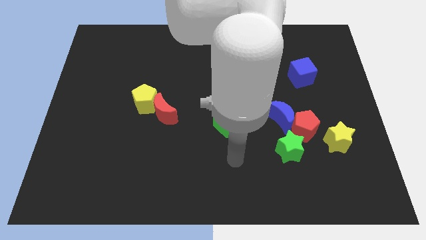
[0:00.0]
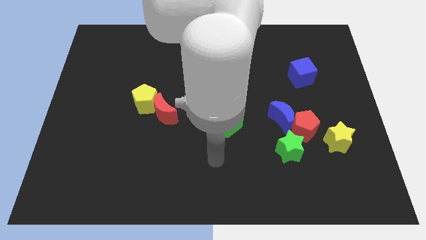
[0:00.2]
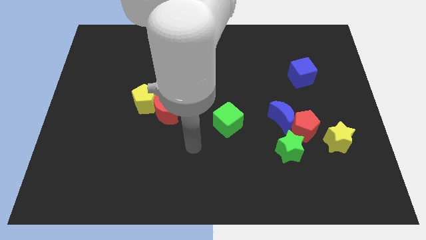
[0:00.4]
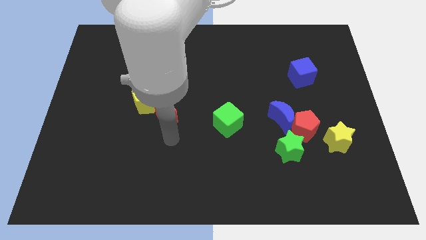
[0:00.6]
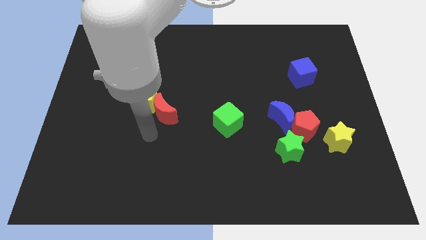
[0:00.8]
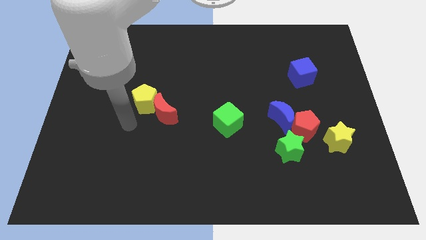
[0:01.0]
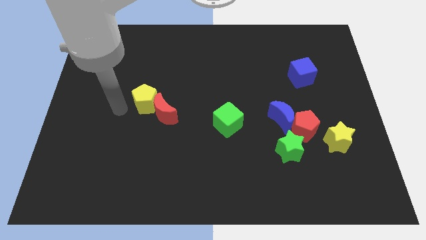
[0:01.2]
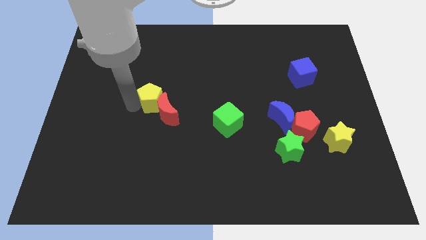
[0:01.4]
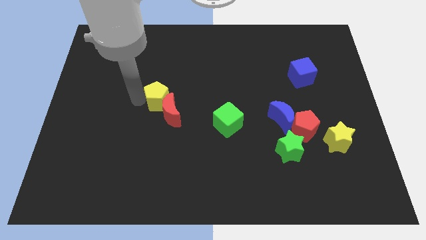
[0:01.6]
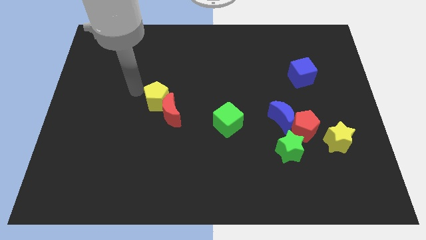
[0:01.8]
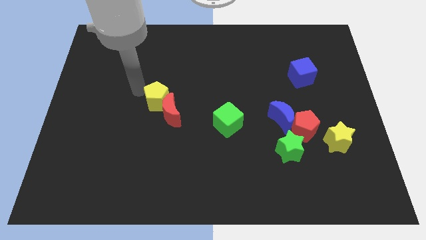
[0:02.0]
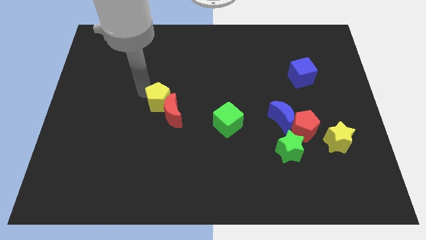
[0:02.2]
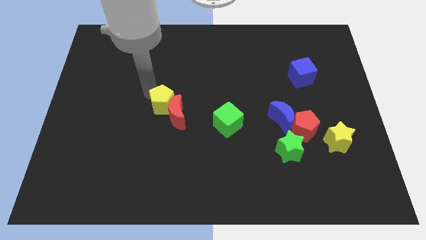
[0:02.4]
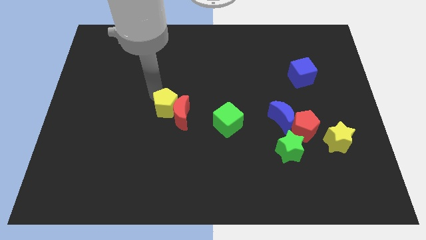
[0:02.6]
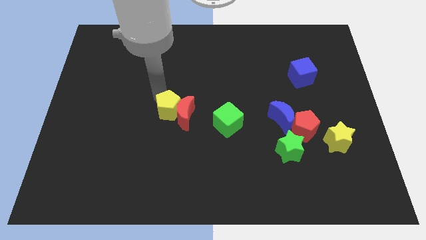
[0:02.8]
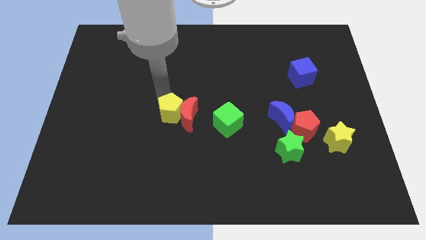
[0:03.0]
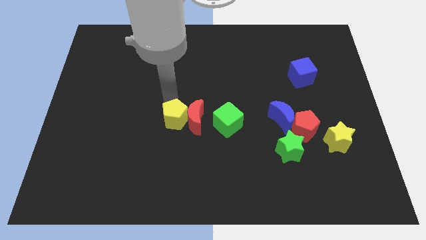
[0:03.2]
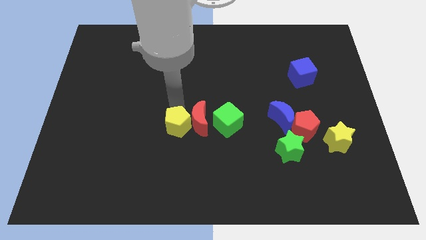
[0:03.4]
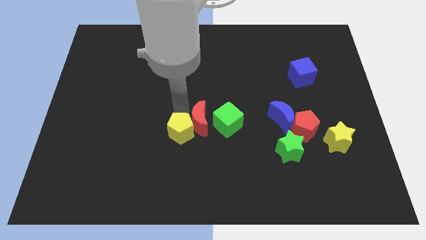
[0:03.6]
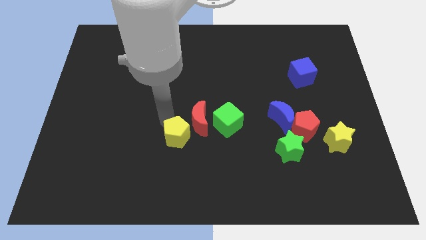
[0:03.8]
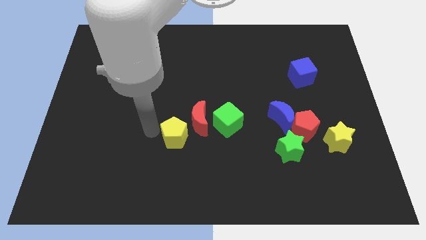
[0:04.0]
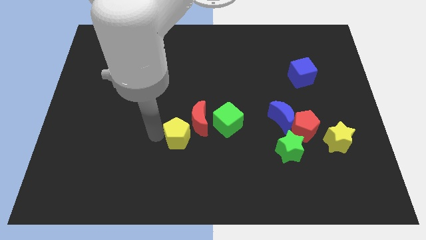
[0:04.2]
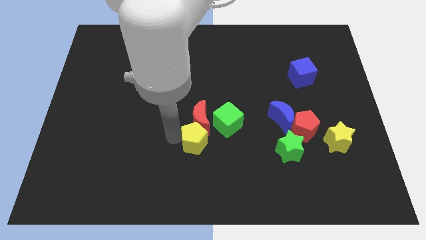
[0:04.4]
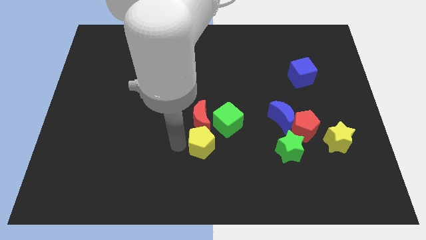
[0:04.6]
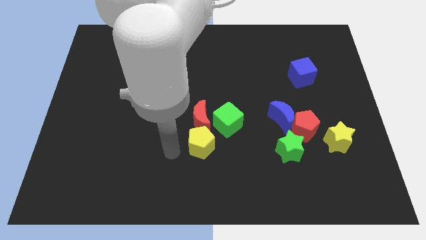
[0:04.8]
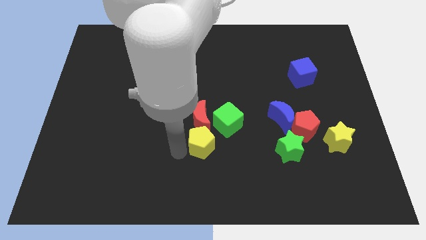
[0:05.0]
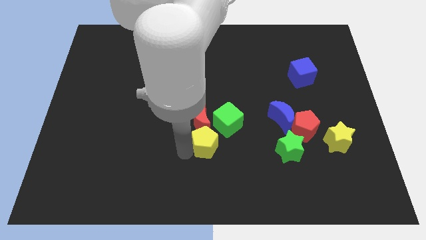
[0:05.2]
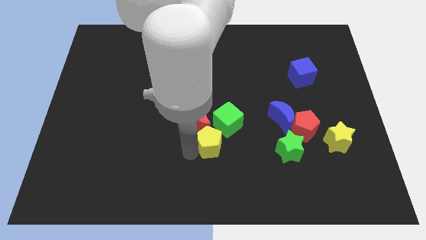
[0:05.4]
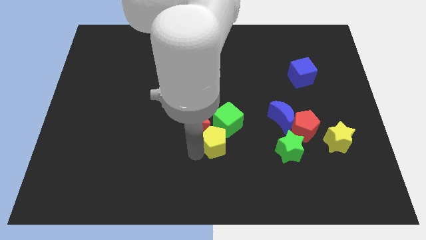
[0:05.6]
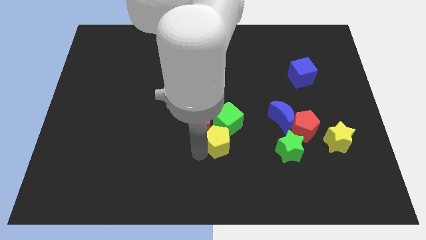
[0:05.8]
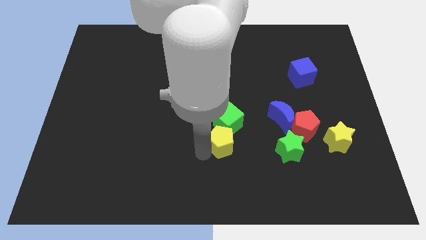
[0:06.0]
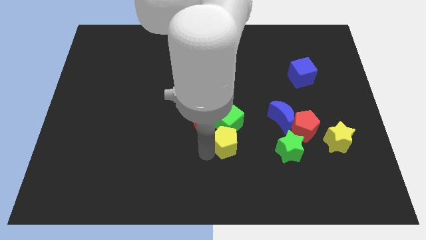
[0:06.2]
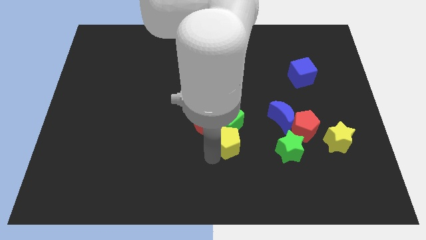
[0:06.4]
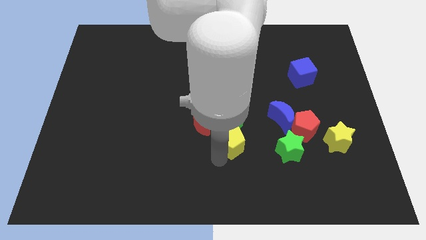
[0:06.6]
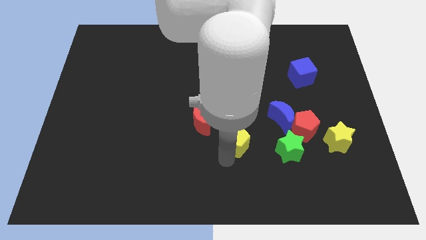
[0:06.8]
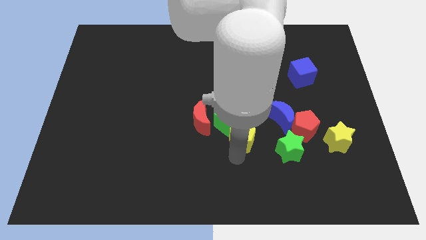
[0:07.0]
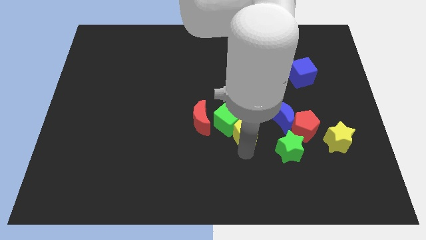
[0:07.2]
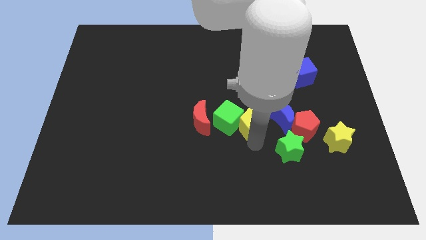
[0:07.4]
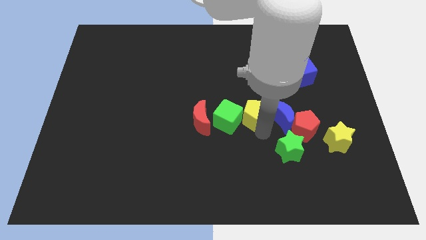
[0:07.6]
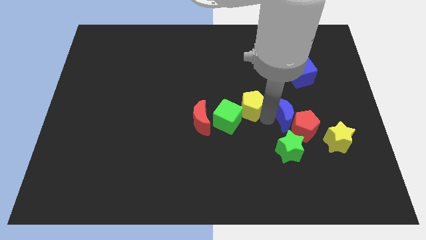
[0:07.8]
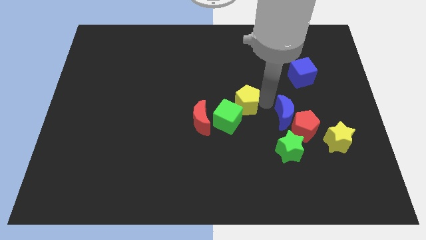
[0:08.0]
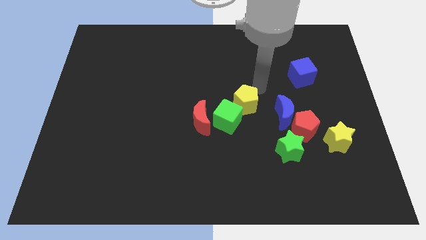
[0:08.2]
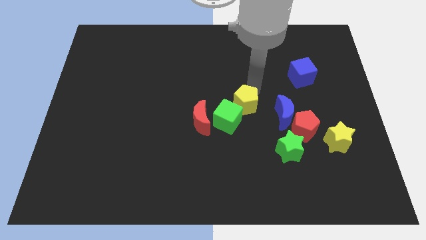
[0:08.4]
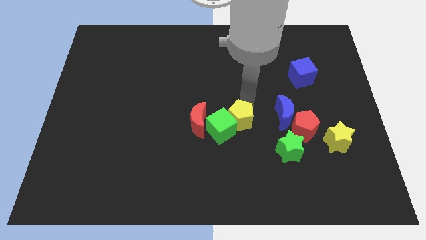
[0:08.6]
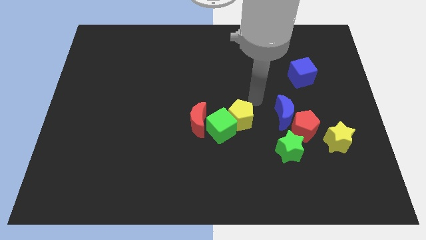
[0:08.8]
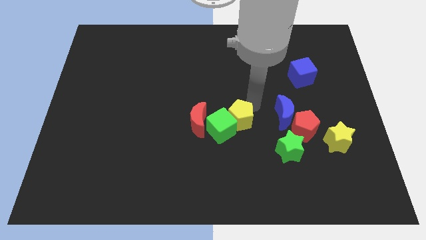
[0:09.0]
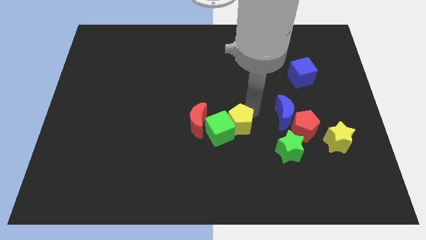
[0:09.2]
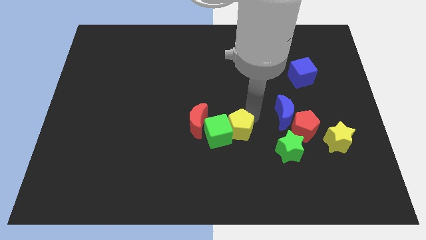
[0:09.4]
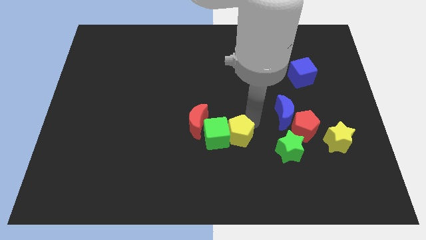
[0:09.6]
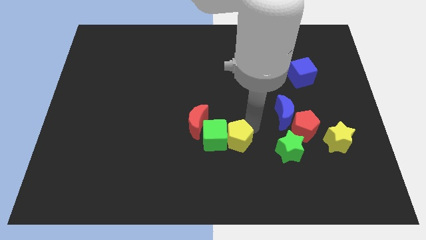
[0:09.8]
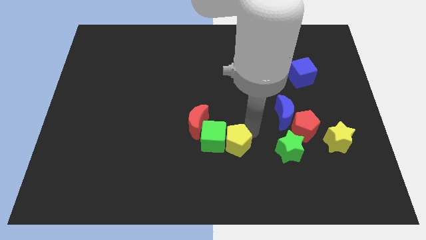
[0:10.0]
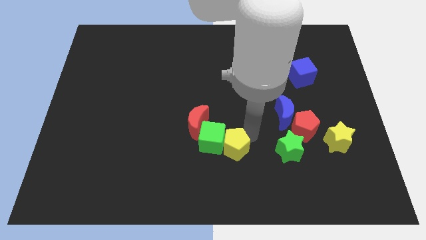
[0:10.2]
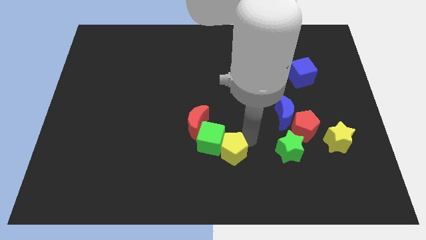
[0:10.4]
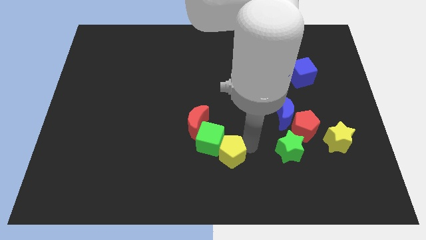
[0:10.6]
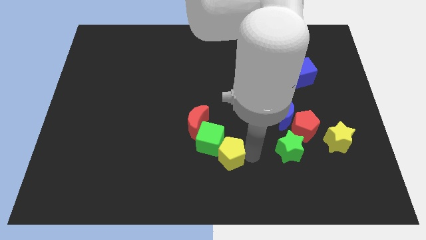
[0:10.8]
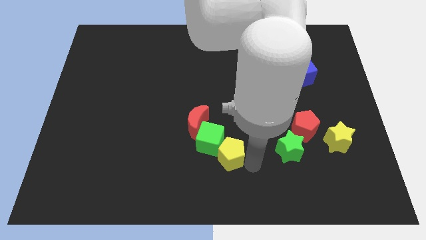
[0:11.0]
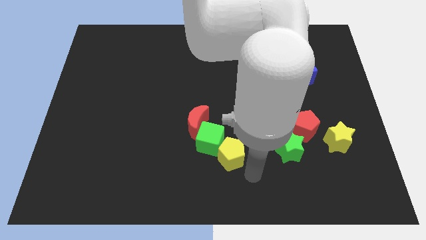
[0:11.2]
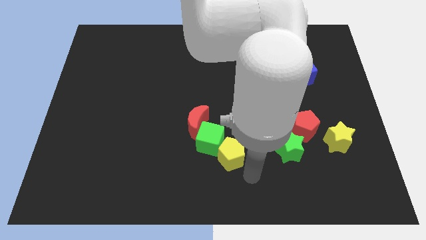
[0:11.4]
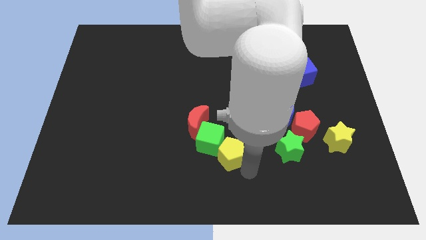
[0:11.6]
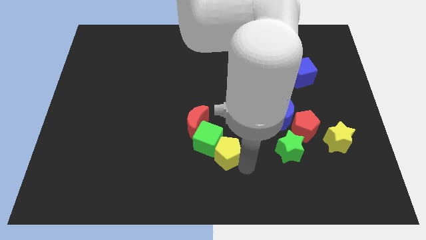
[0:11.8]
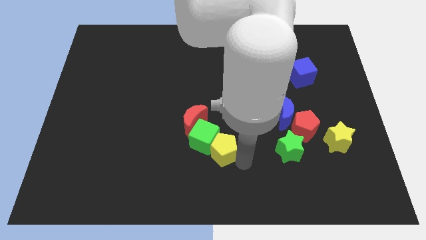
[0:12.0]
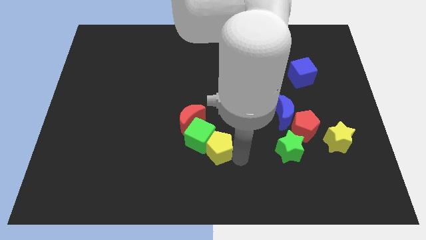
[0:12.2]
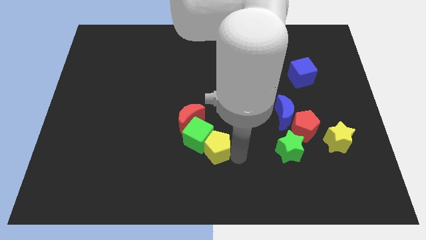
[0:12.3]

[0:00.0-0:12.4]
push the yellow pentagon to the bottom right of the red moon

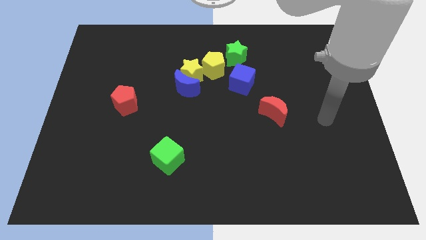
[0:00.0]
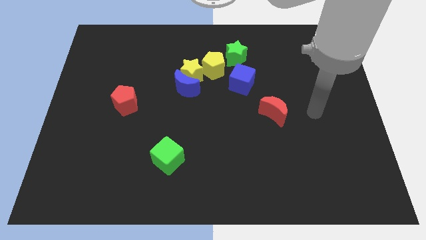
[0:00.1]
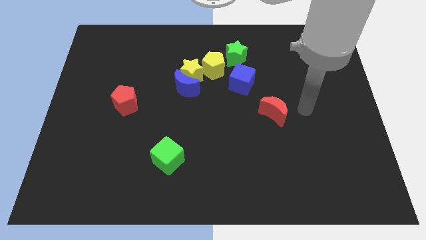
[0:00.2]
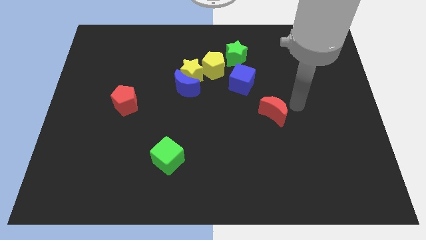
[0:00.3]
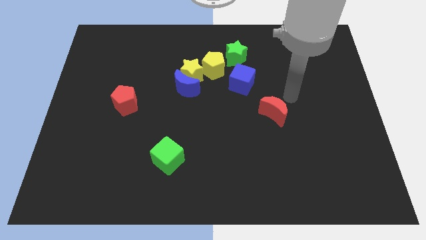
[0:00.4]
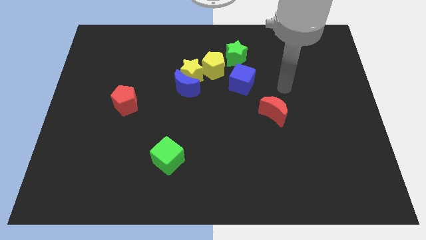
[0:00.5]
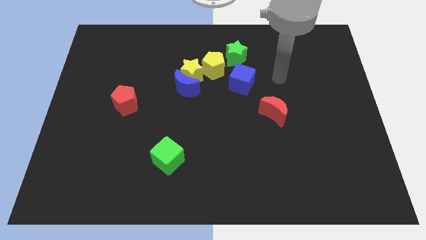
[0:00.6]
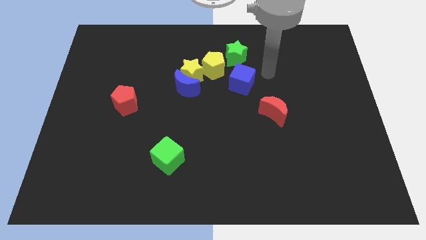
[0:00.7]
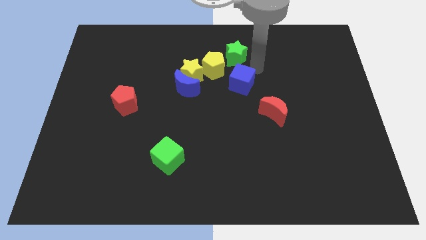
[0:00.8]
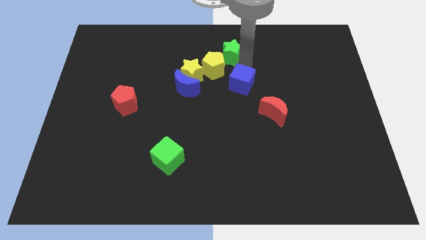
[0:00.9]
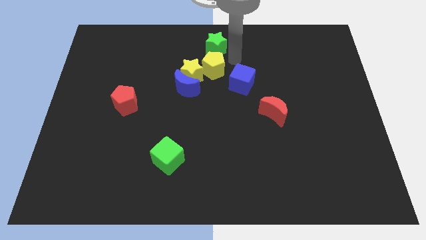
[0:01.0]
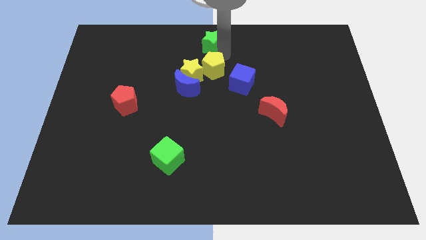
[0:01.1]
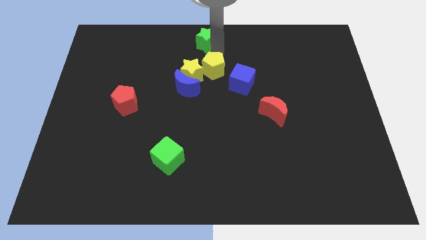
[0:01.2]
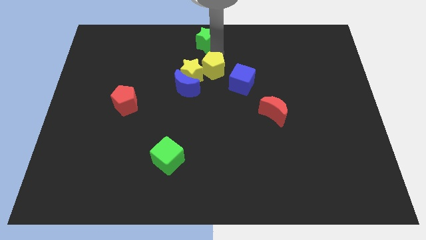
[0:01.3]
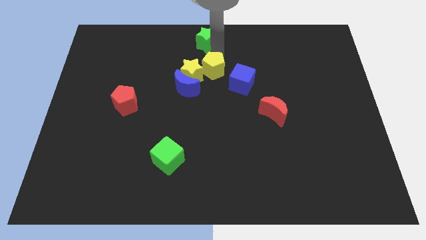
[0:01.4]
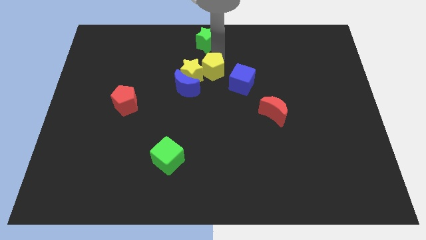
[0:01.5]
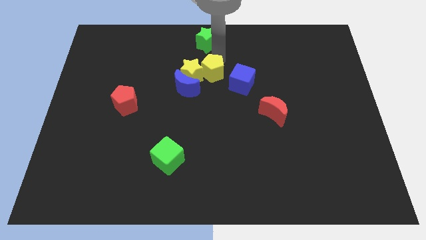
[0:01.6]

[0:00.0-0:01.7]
move the yellow pentagon to the bottom right side of the yellow star
